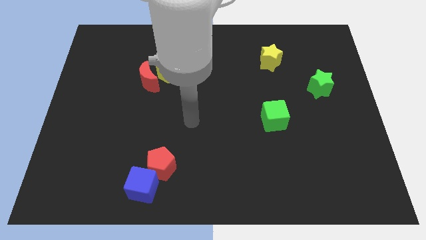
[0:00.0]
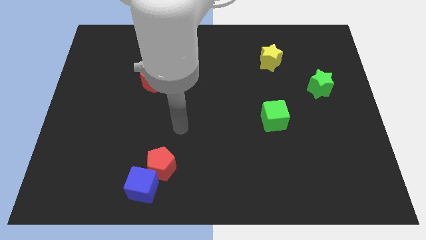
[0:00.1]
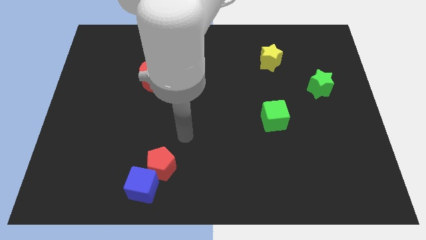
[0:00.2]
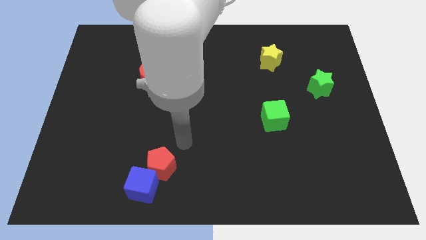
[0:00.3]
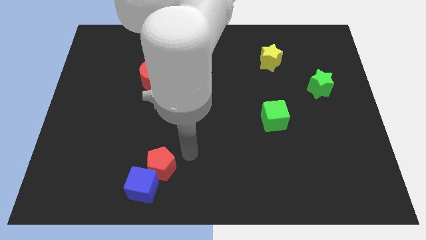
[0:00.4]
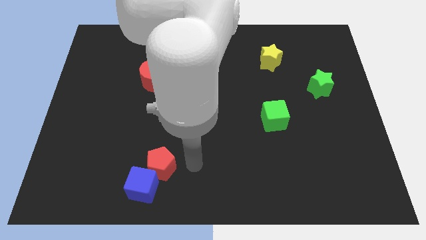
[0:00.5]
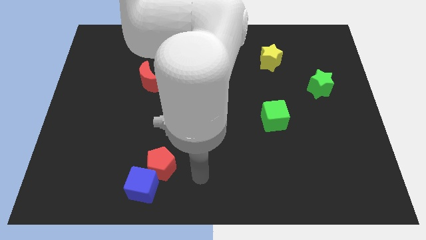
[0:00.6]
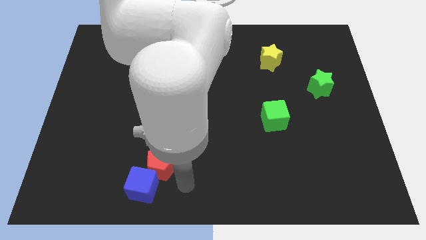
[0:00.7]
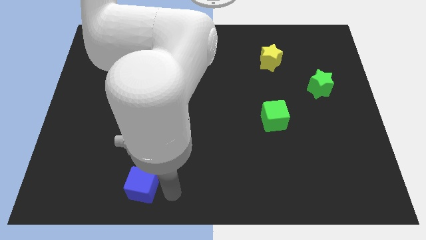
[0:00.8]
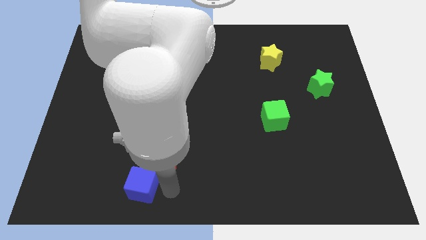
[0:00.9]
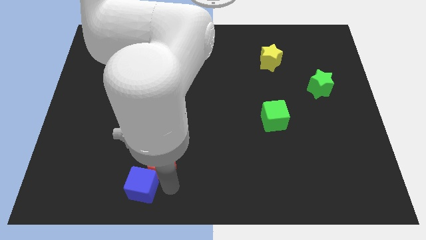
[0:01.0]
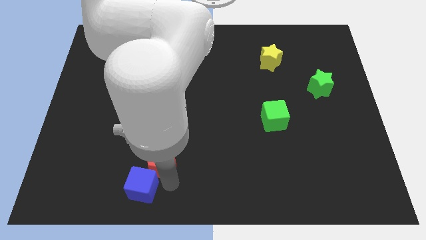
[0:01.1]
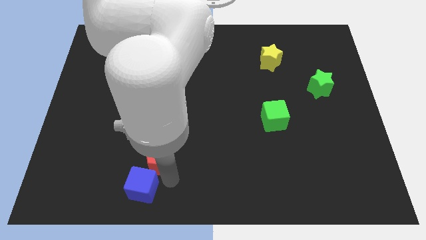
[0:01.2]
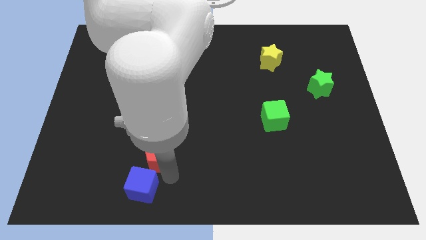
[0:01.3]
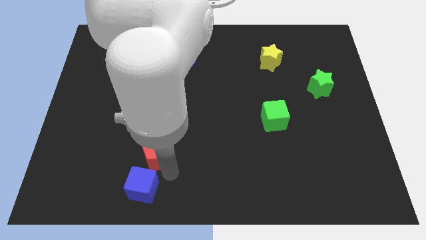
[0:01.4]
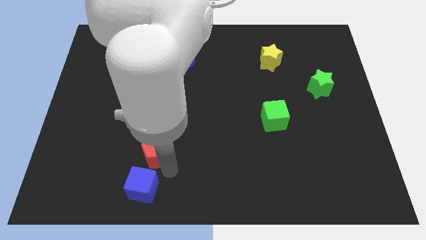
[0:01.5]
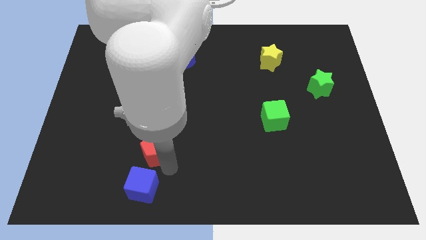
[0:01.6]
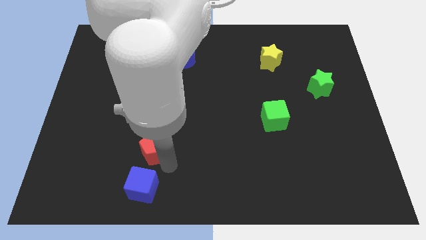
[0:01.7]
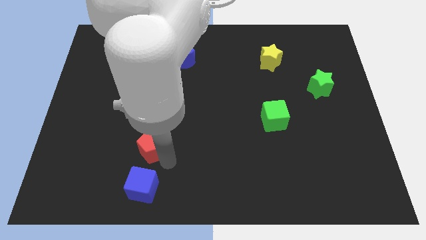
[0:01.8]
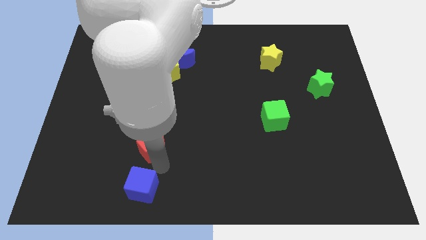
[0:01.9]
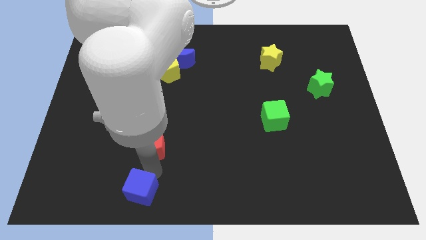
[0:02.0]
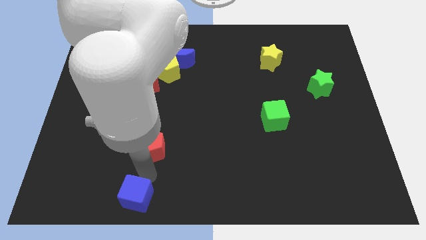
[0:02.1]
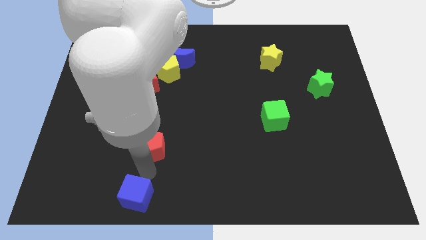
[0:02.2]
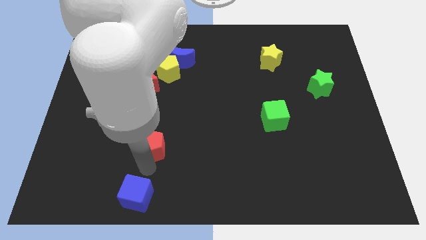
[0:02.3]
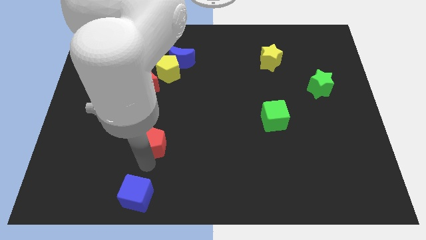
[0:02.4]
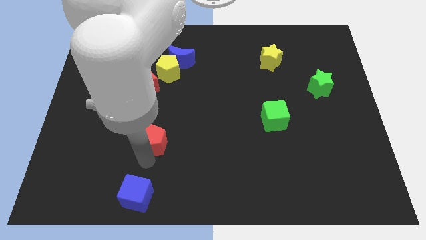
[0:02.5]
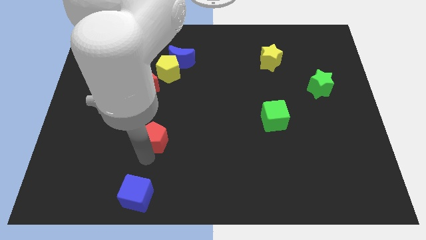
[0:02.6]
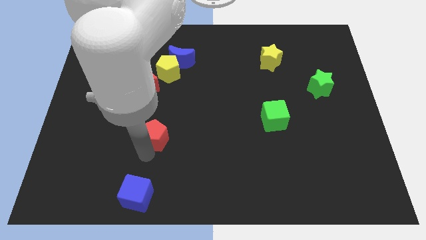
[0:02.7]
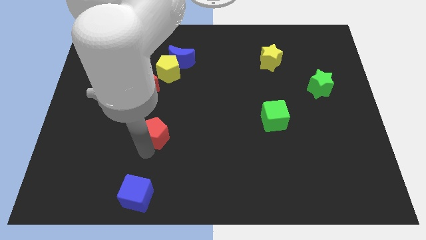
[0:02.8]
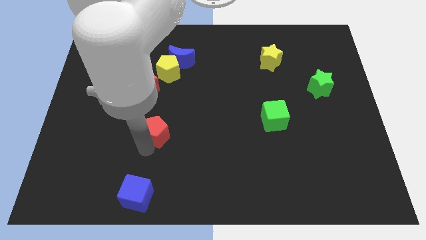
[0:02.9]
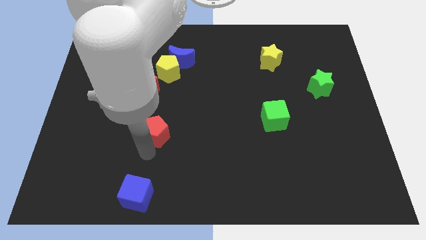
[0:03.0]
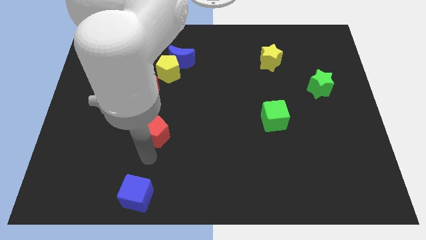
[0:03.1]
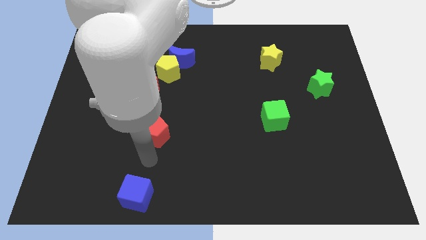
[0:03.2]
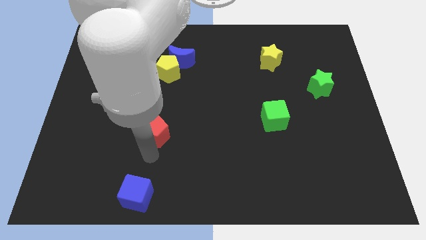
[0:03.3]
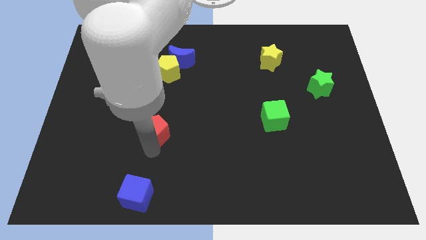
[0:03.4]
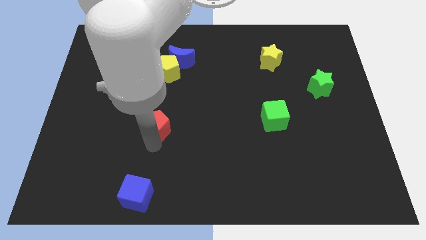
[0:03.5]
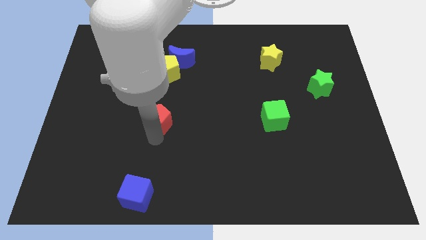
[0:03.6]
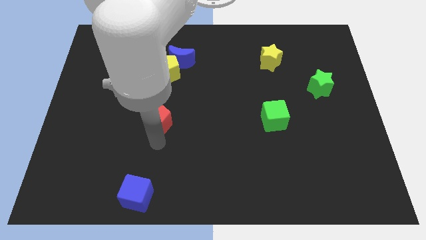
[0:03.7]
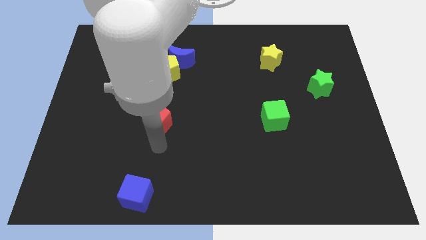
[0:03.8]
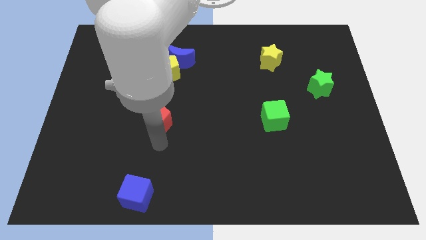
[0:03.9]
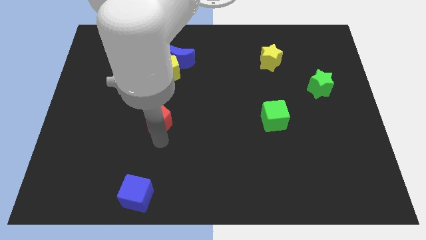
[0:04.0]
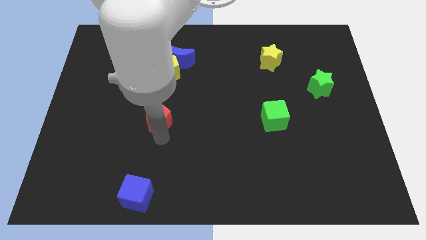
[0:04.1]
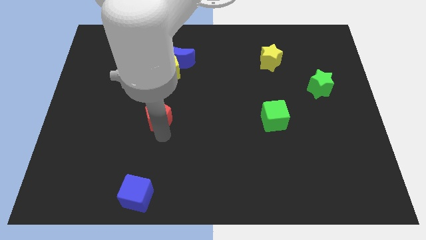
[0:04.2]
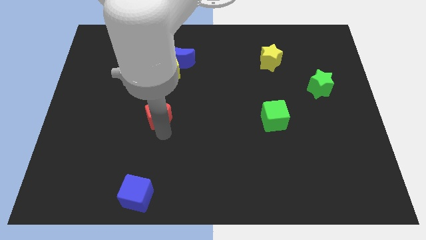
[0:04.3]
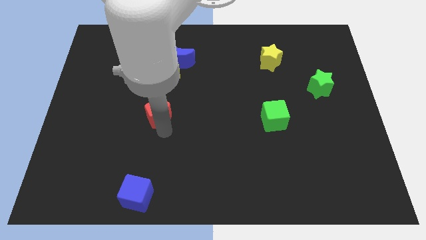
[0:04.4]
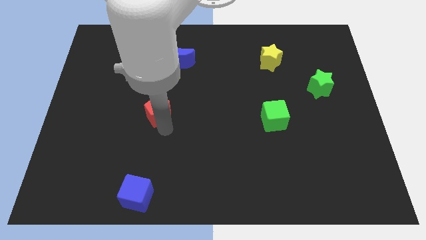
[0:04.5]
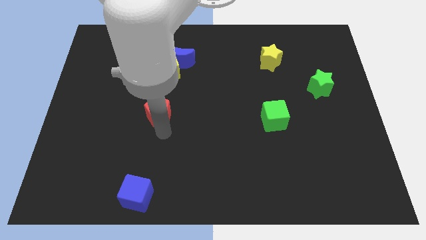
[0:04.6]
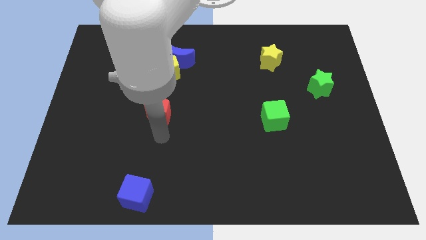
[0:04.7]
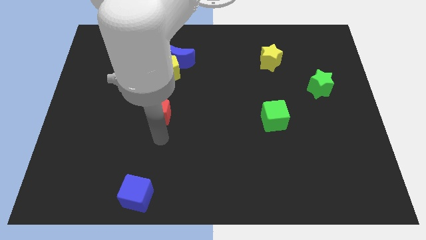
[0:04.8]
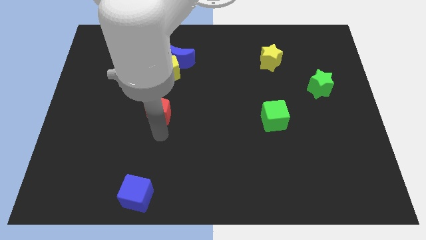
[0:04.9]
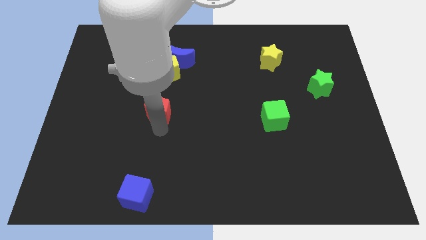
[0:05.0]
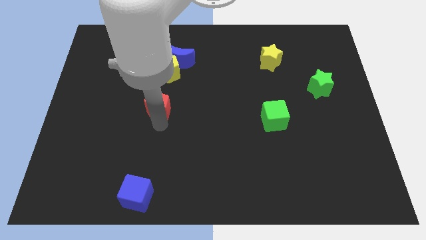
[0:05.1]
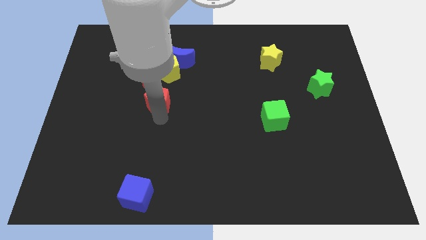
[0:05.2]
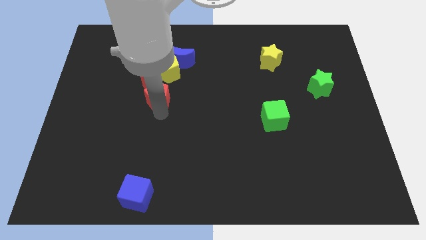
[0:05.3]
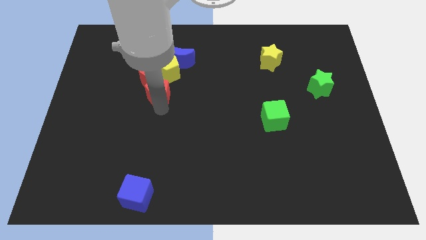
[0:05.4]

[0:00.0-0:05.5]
slide the red pentagon next to the red moon

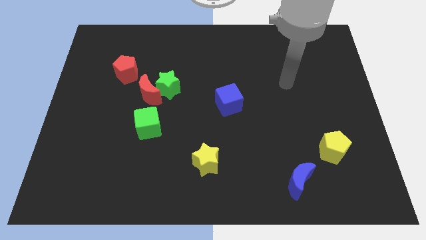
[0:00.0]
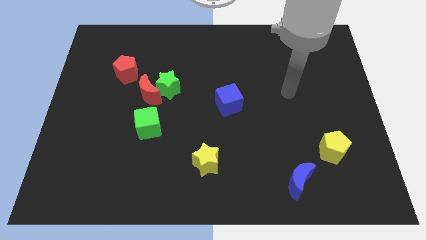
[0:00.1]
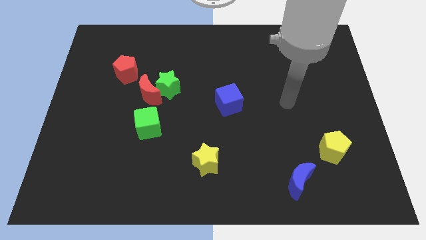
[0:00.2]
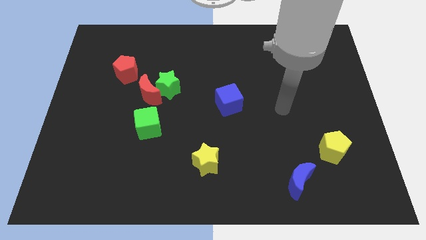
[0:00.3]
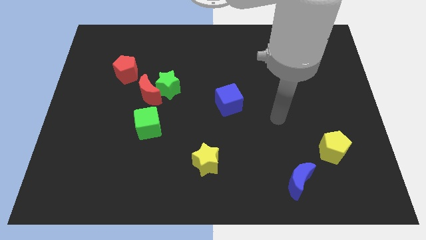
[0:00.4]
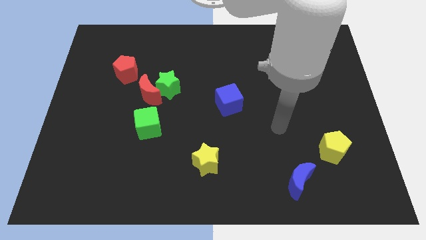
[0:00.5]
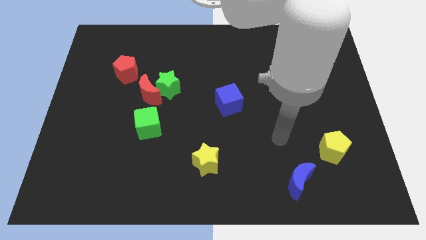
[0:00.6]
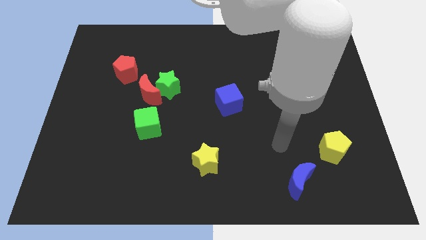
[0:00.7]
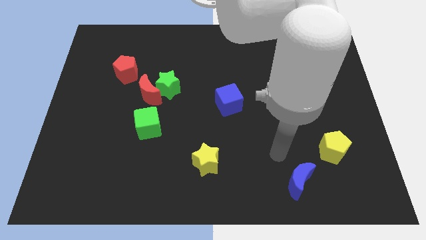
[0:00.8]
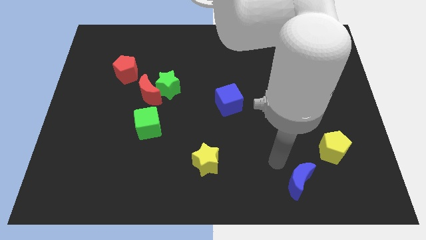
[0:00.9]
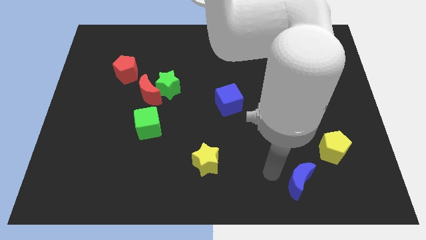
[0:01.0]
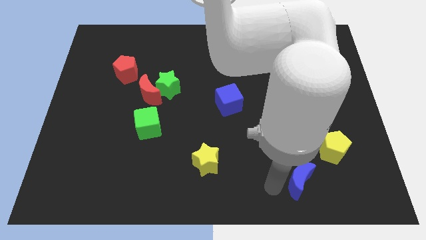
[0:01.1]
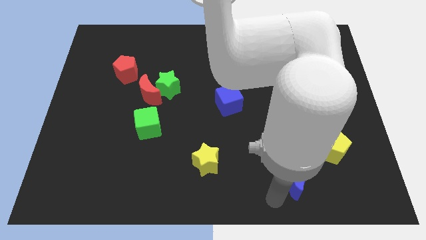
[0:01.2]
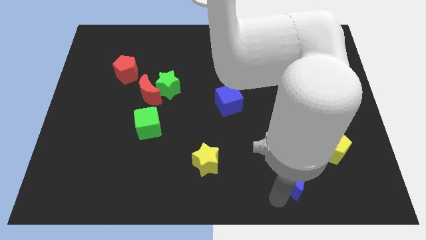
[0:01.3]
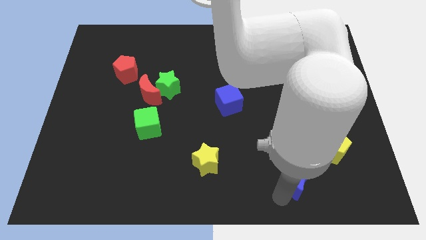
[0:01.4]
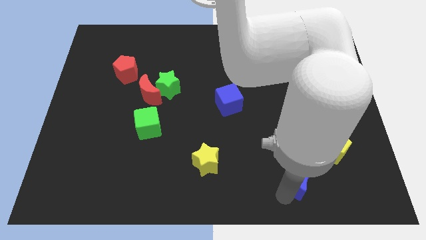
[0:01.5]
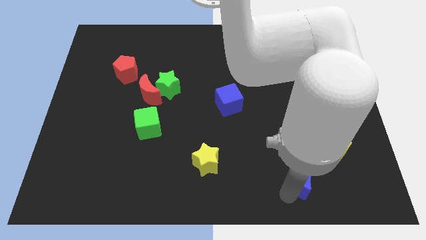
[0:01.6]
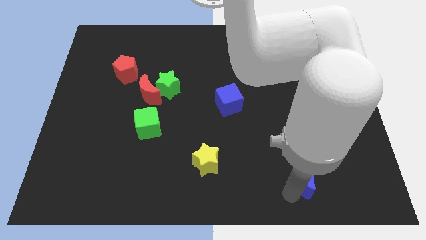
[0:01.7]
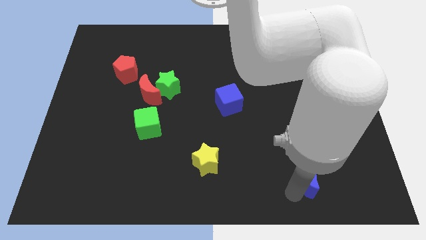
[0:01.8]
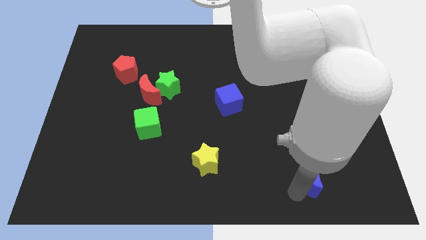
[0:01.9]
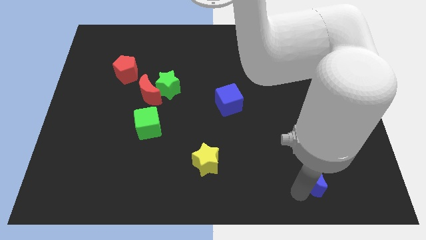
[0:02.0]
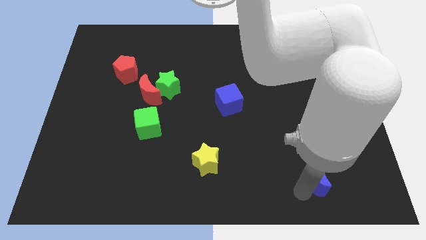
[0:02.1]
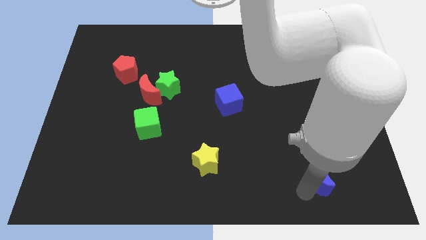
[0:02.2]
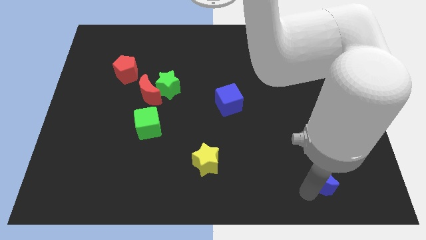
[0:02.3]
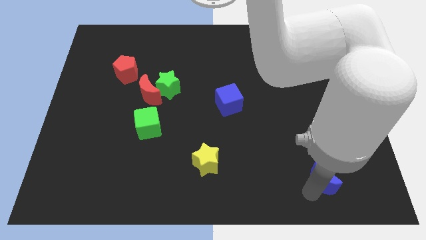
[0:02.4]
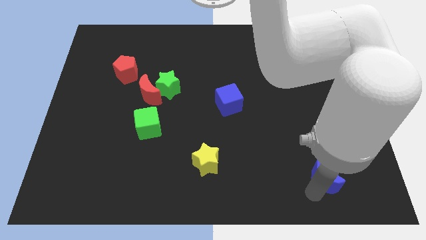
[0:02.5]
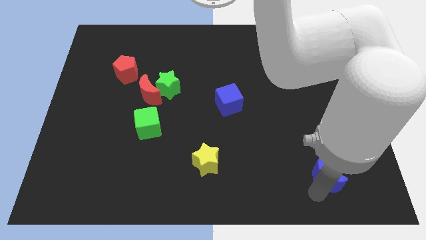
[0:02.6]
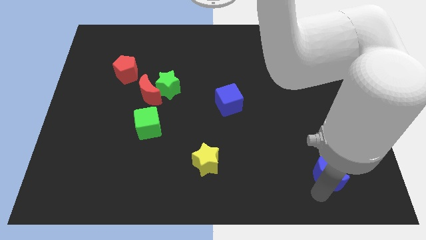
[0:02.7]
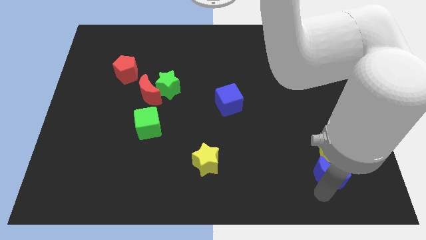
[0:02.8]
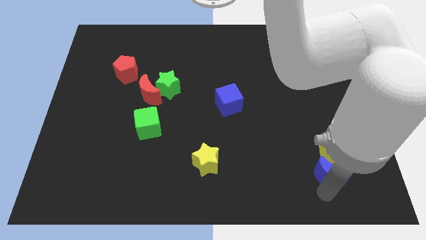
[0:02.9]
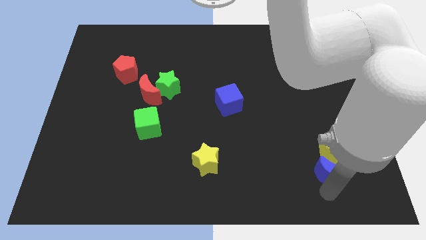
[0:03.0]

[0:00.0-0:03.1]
move the blue moon next to the yellow pentagon
